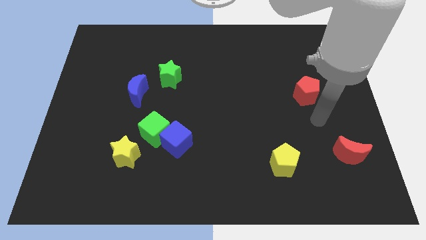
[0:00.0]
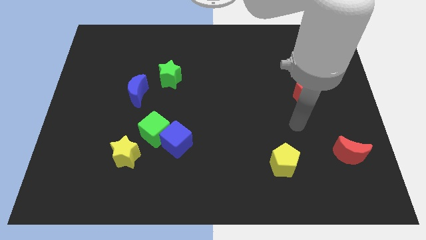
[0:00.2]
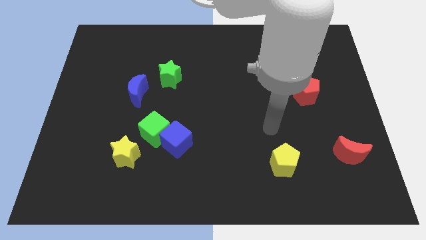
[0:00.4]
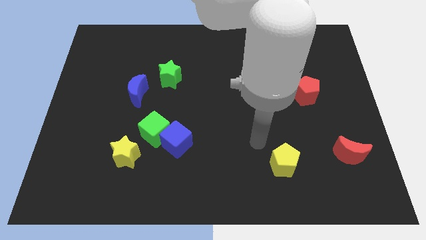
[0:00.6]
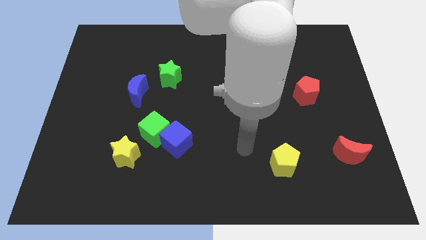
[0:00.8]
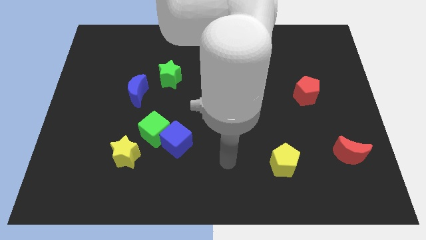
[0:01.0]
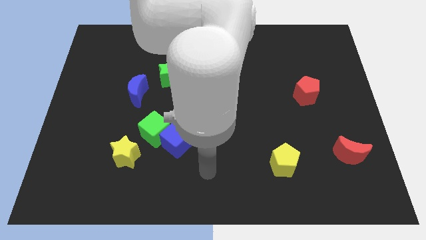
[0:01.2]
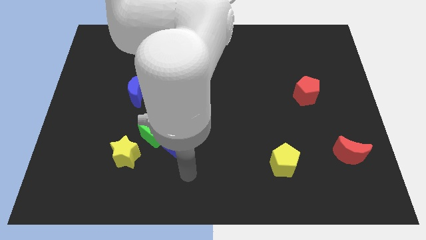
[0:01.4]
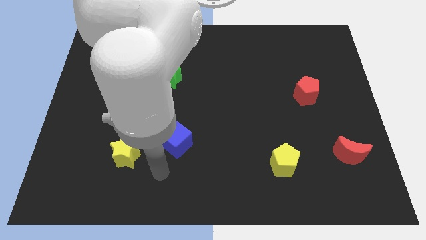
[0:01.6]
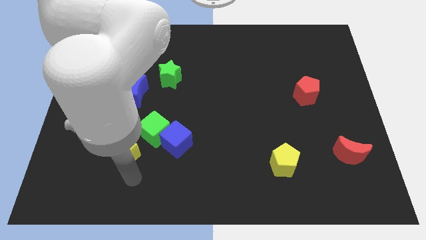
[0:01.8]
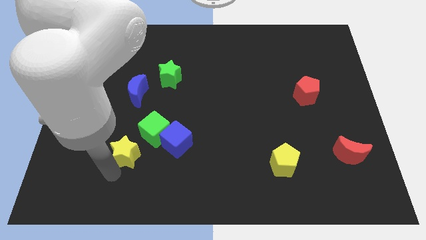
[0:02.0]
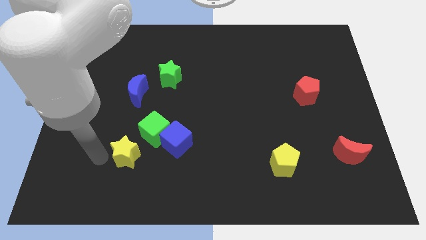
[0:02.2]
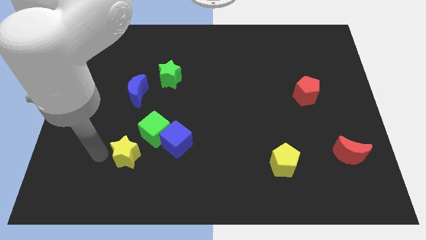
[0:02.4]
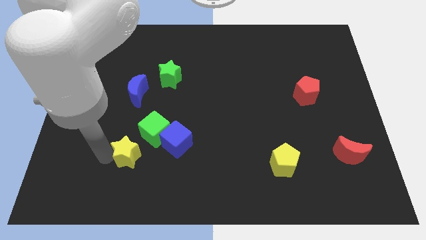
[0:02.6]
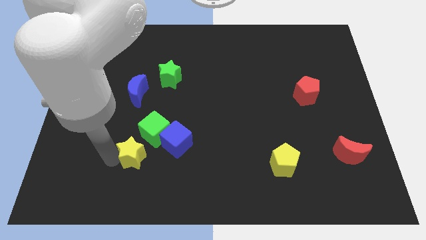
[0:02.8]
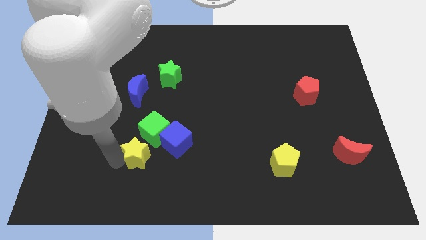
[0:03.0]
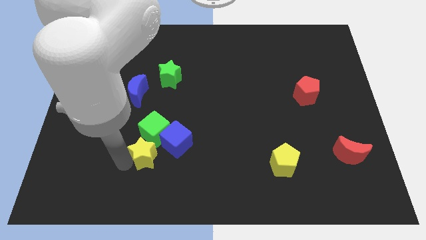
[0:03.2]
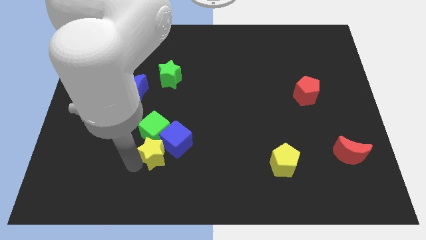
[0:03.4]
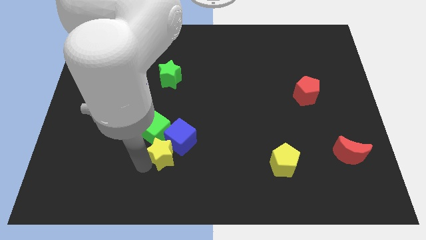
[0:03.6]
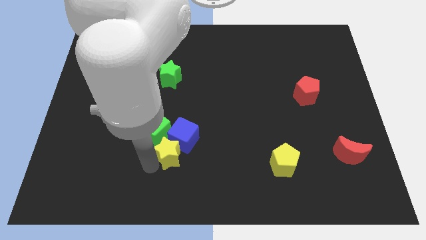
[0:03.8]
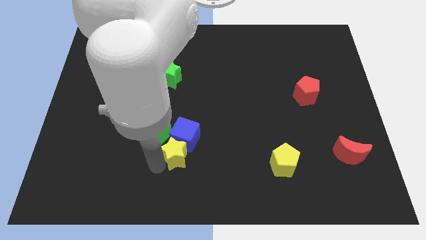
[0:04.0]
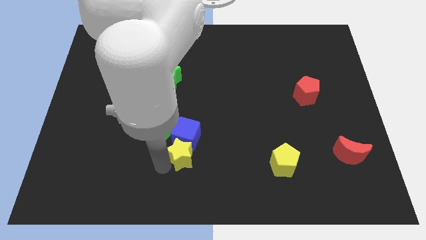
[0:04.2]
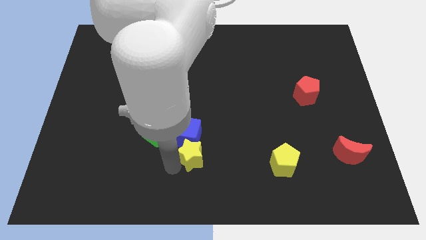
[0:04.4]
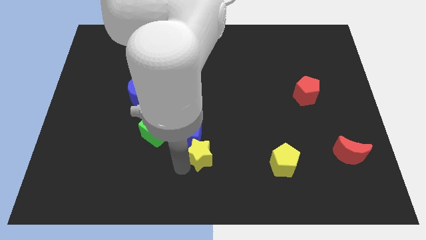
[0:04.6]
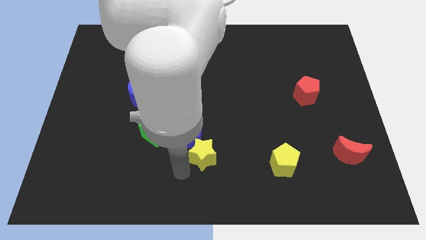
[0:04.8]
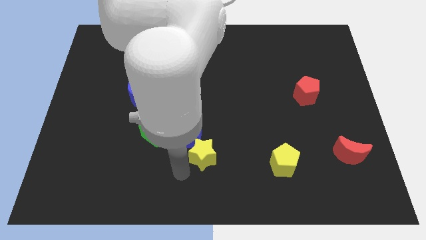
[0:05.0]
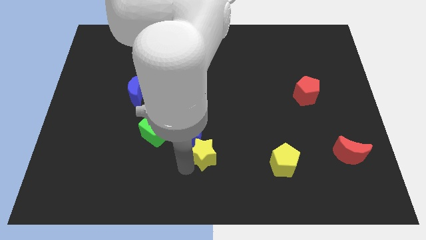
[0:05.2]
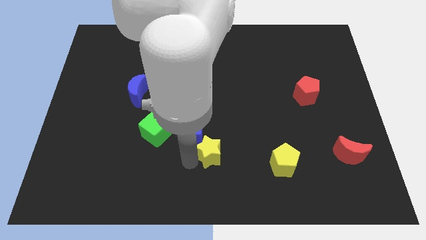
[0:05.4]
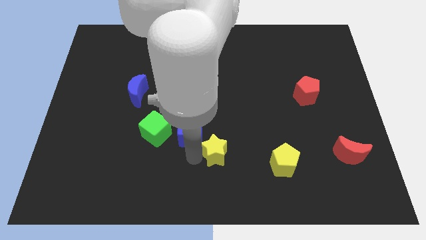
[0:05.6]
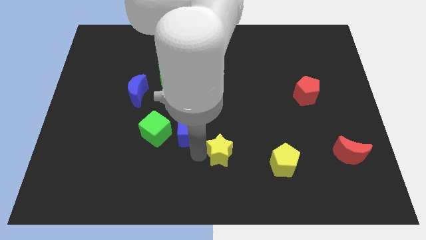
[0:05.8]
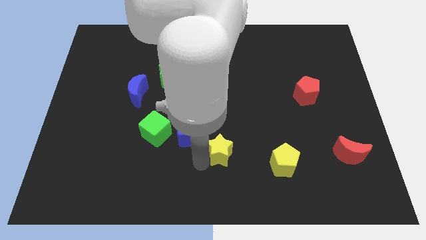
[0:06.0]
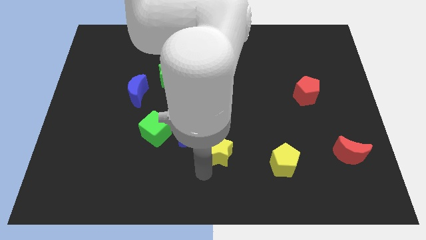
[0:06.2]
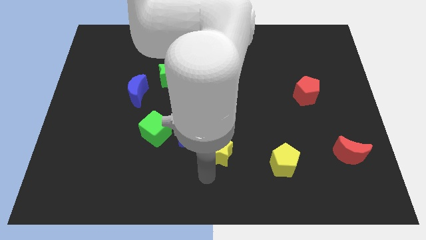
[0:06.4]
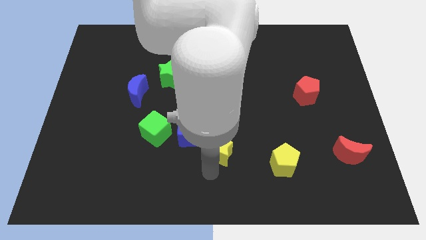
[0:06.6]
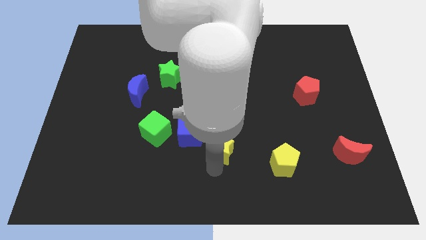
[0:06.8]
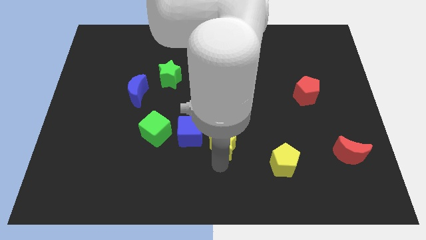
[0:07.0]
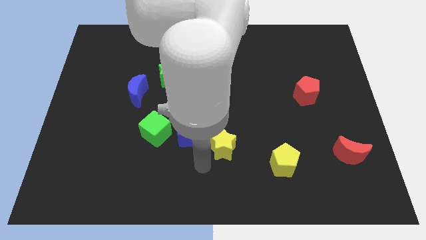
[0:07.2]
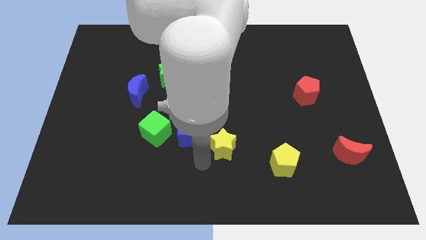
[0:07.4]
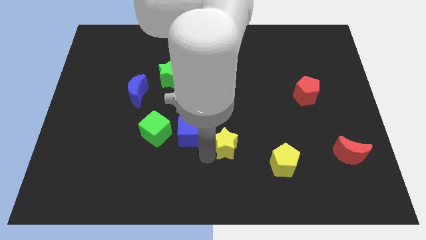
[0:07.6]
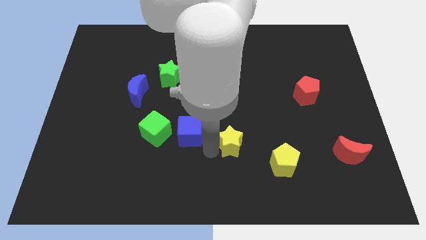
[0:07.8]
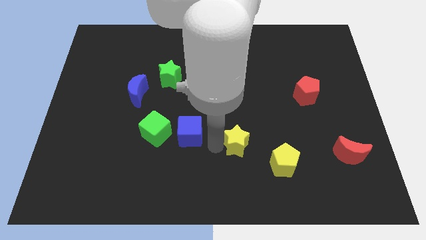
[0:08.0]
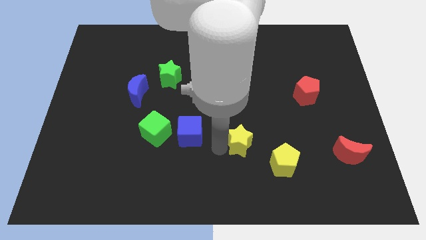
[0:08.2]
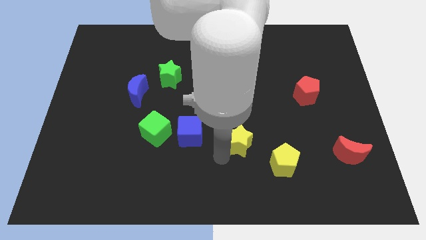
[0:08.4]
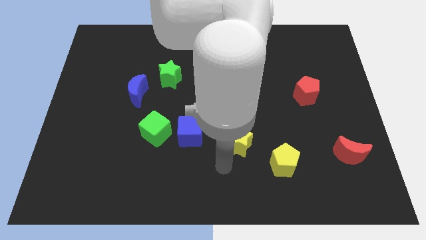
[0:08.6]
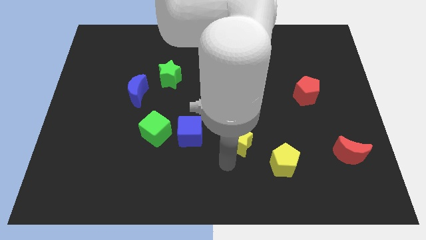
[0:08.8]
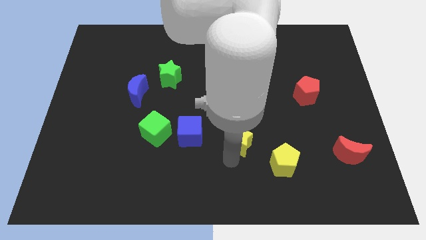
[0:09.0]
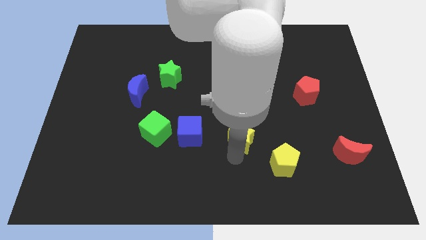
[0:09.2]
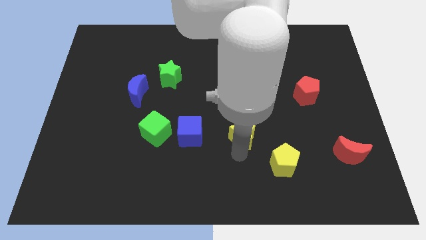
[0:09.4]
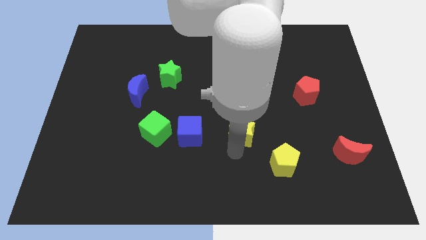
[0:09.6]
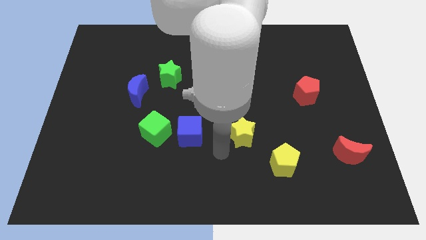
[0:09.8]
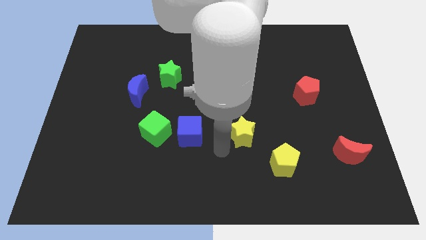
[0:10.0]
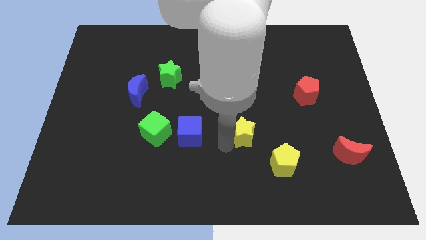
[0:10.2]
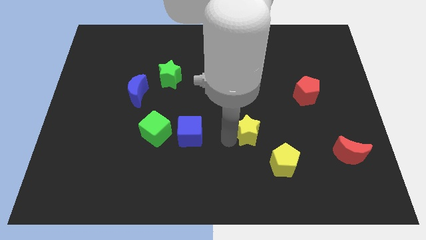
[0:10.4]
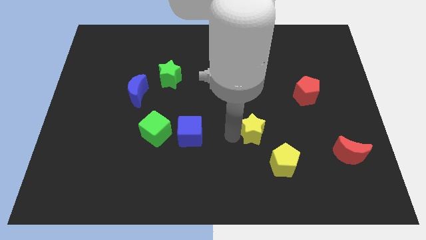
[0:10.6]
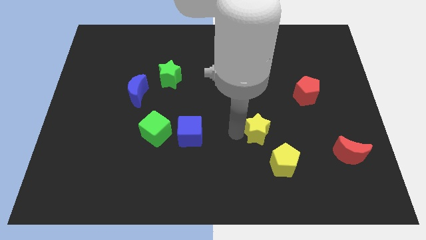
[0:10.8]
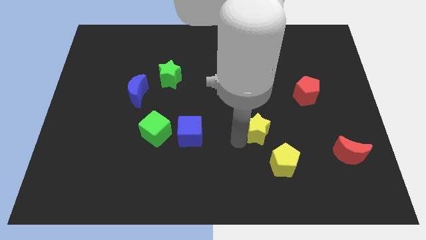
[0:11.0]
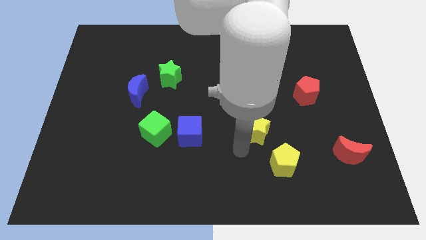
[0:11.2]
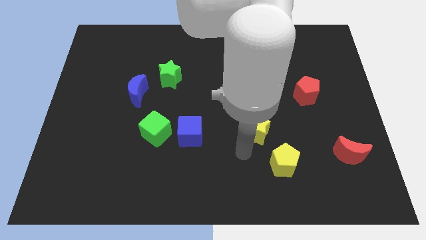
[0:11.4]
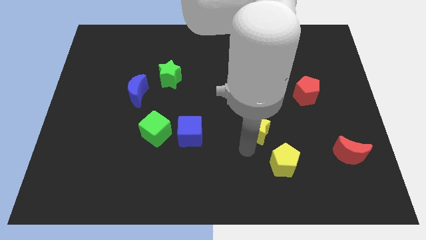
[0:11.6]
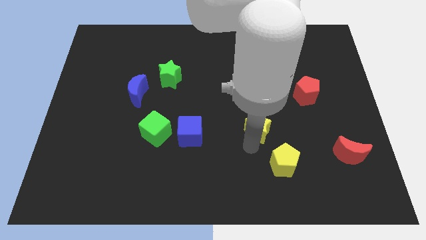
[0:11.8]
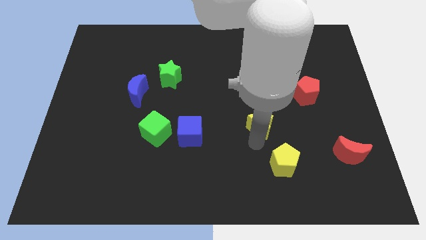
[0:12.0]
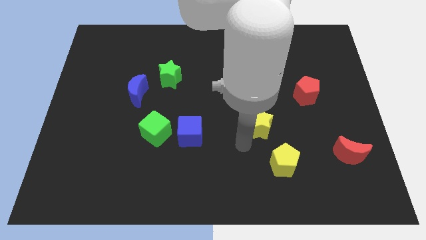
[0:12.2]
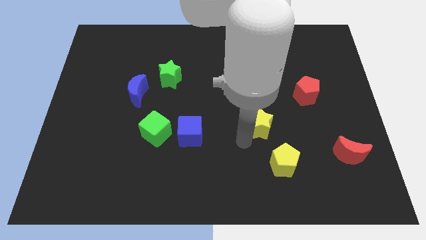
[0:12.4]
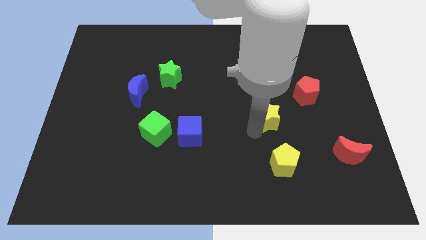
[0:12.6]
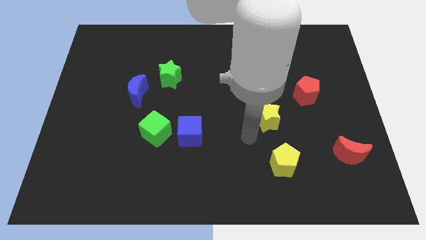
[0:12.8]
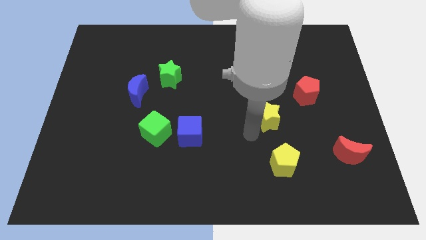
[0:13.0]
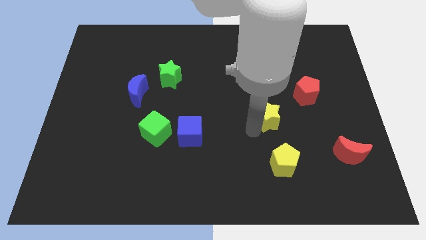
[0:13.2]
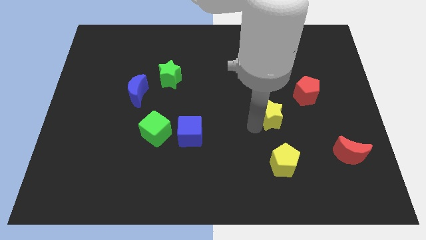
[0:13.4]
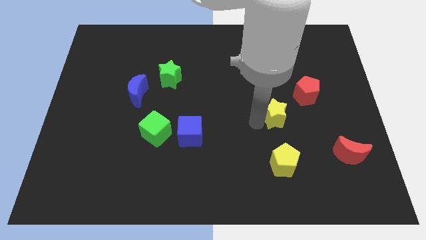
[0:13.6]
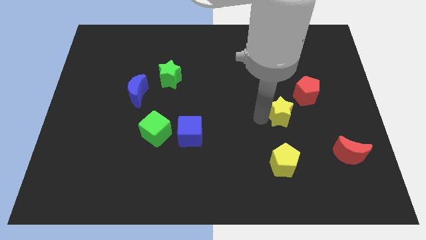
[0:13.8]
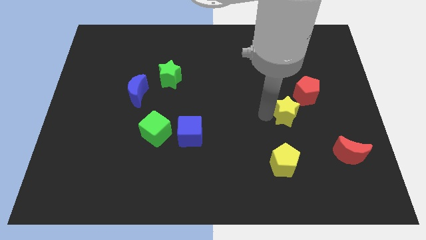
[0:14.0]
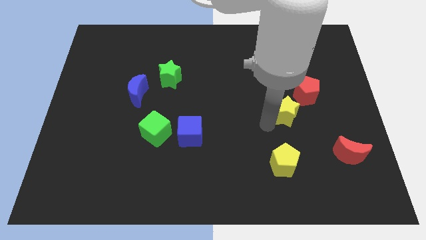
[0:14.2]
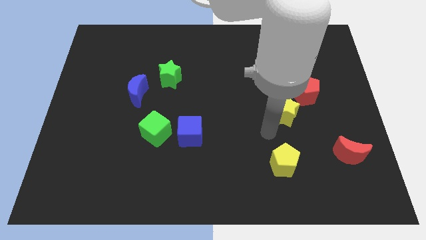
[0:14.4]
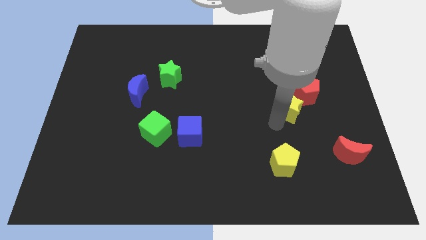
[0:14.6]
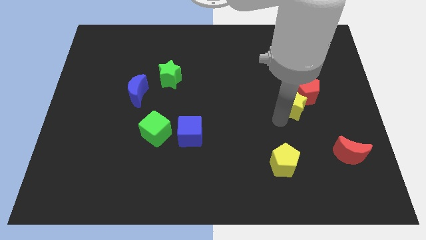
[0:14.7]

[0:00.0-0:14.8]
slide the yellow star to the red pentagon
